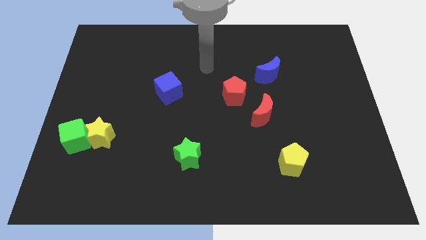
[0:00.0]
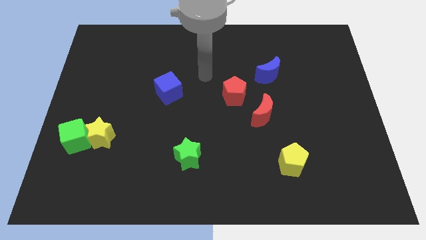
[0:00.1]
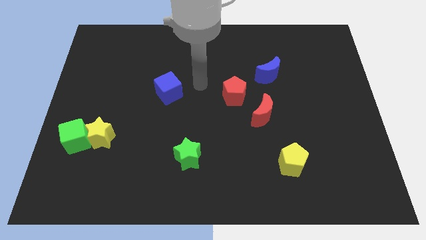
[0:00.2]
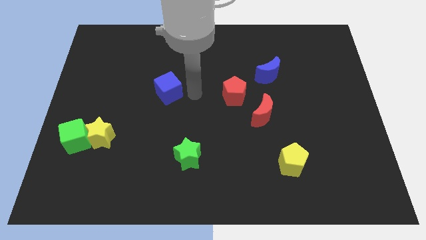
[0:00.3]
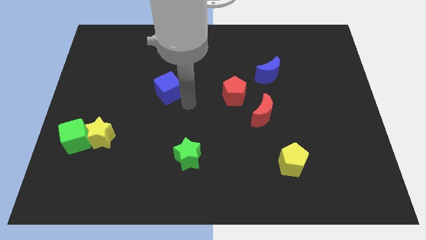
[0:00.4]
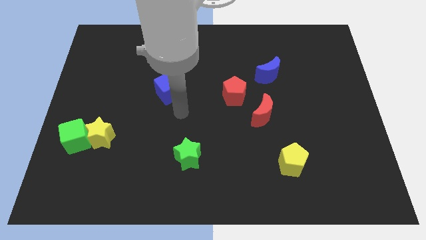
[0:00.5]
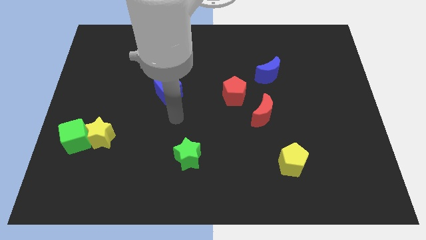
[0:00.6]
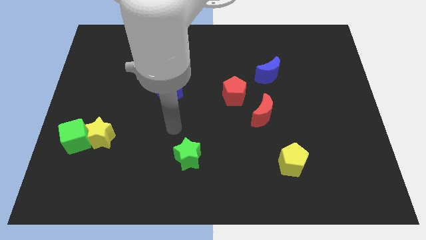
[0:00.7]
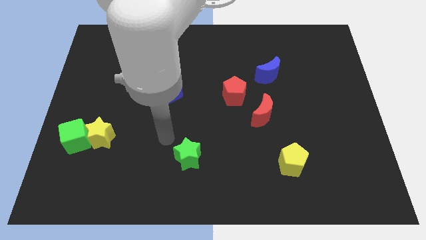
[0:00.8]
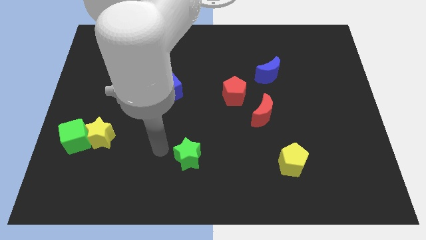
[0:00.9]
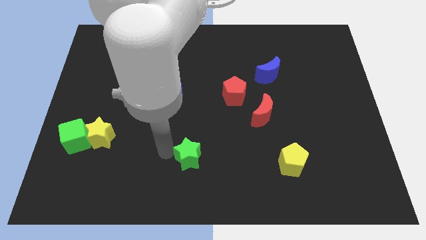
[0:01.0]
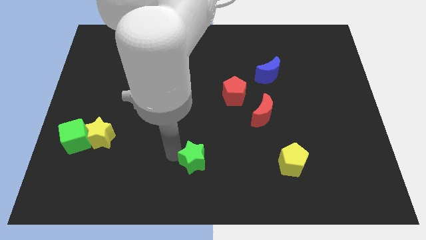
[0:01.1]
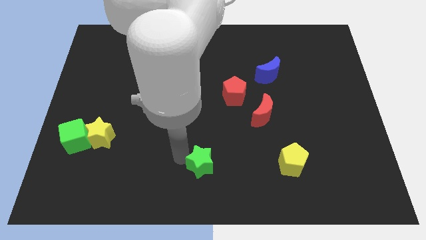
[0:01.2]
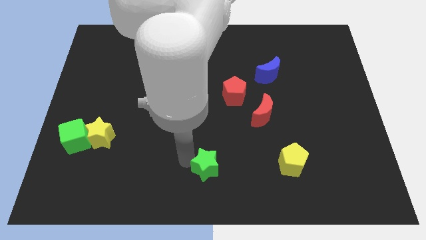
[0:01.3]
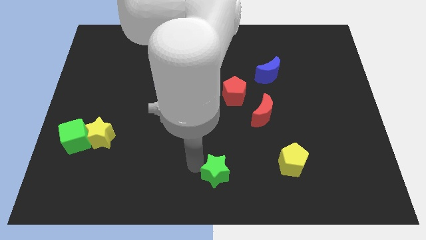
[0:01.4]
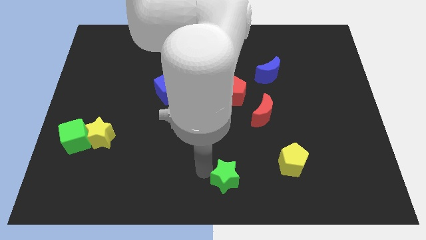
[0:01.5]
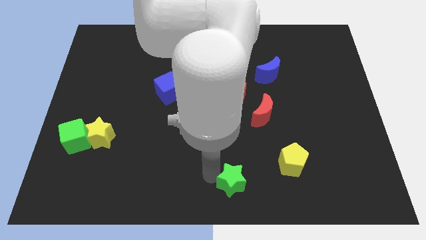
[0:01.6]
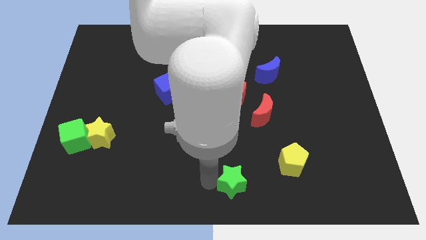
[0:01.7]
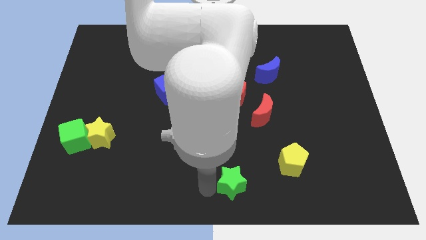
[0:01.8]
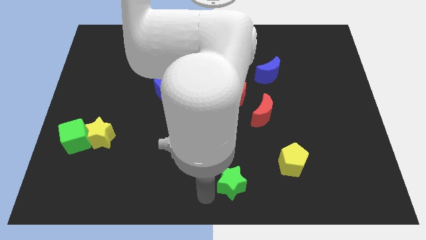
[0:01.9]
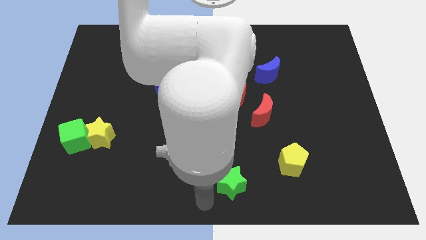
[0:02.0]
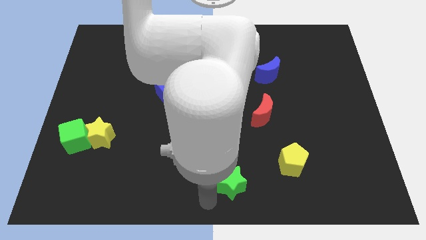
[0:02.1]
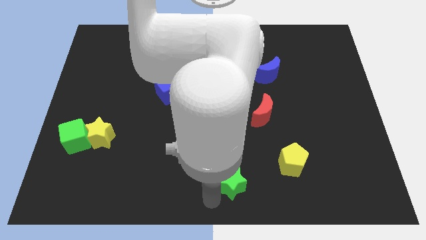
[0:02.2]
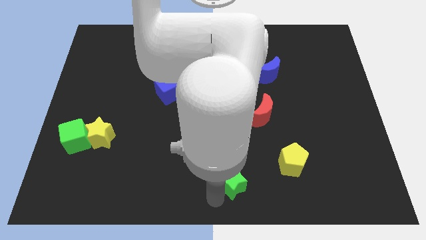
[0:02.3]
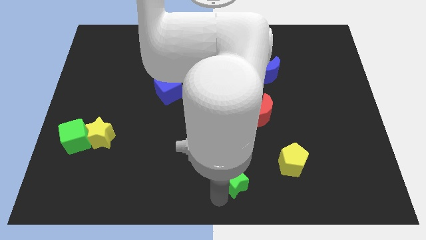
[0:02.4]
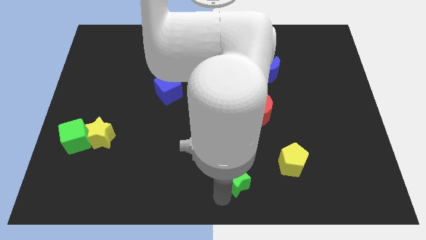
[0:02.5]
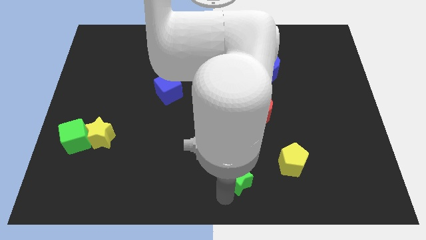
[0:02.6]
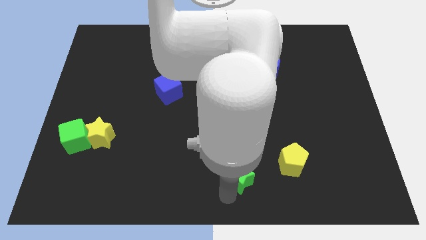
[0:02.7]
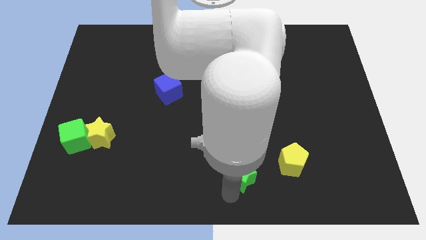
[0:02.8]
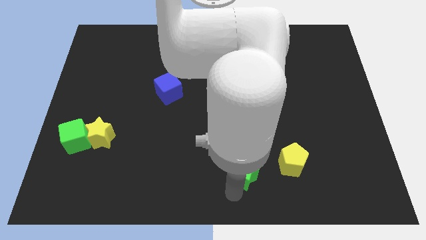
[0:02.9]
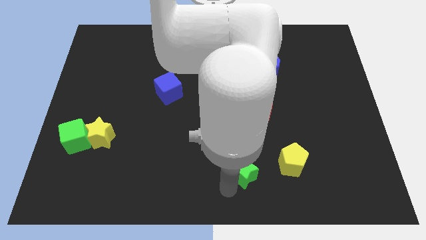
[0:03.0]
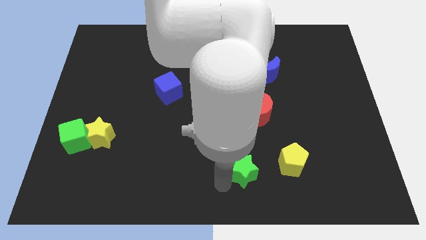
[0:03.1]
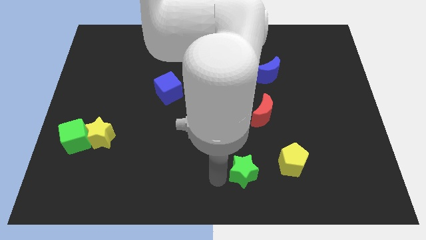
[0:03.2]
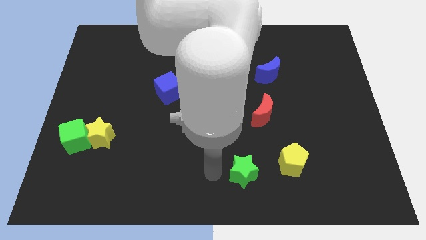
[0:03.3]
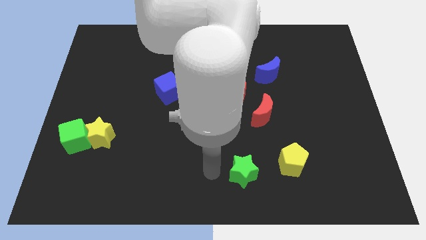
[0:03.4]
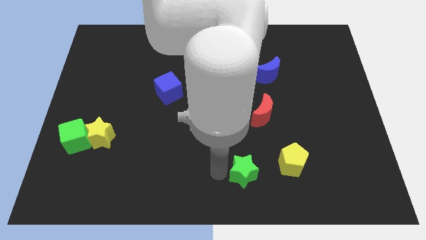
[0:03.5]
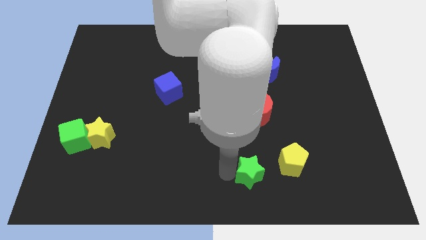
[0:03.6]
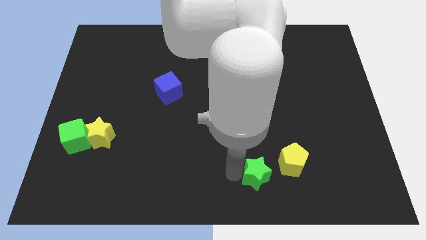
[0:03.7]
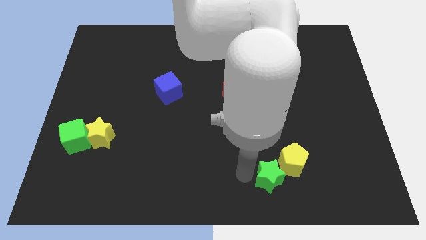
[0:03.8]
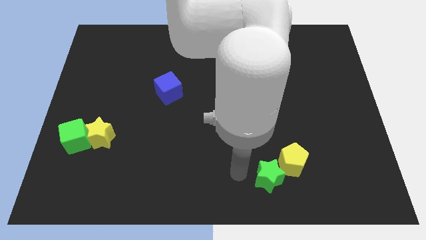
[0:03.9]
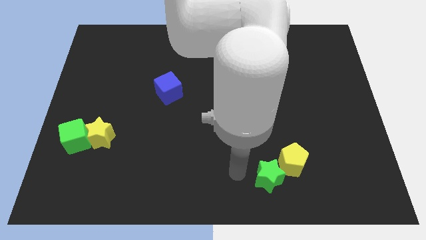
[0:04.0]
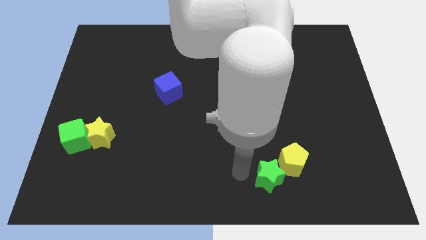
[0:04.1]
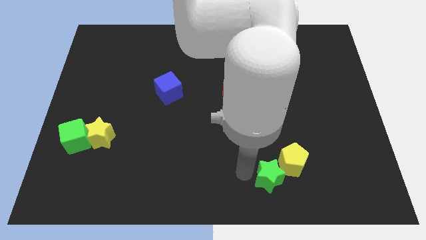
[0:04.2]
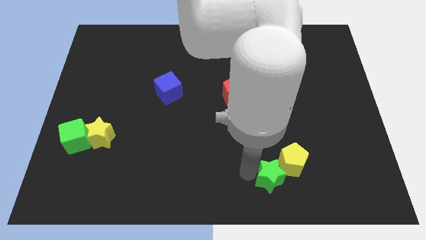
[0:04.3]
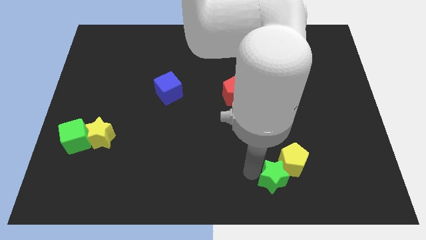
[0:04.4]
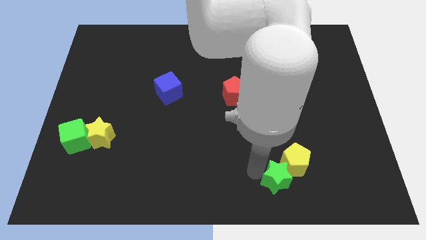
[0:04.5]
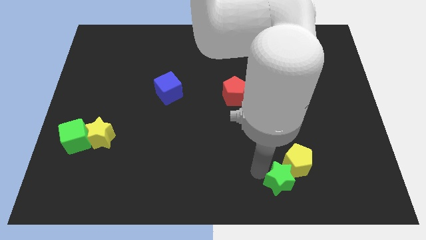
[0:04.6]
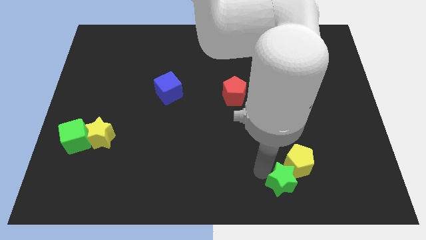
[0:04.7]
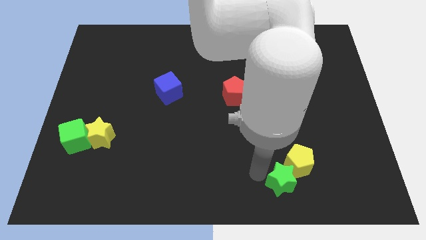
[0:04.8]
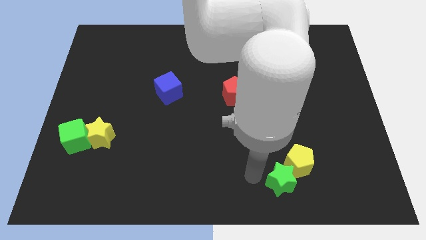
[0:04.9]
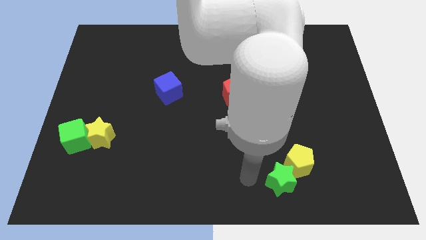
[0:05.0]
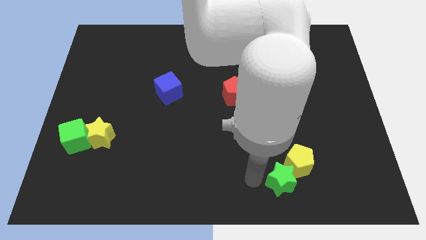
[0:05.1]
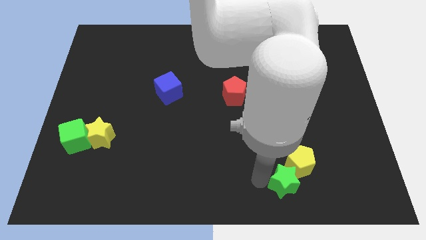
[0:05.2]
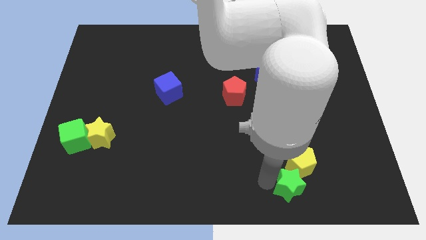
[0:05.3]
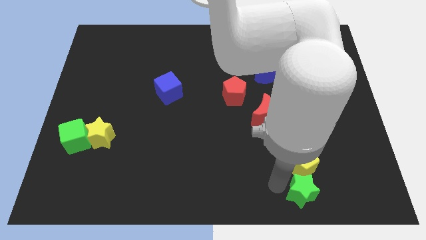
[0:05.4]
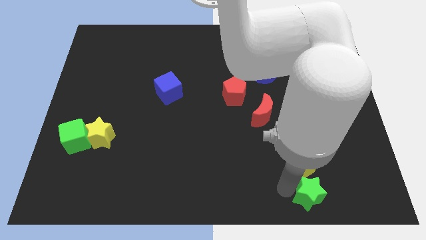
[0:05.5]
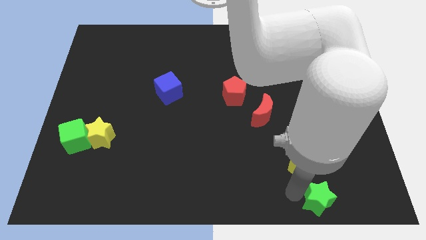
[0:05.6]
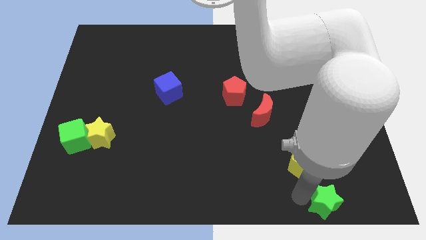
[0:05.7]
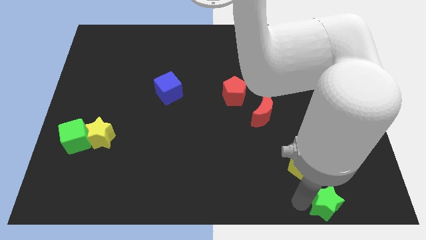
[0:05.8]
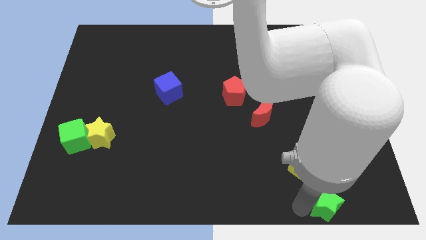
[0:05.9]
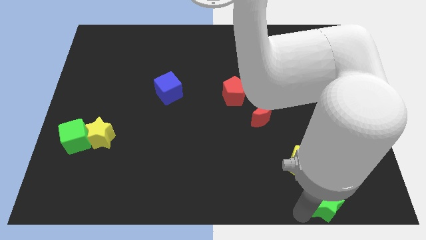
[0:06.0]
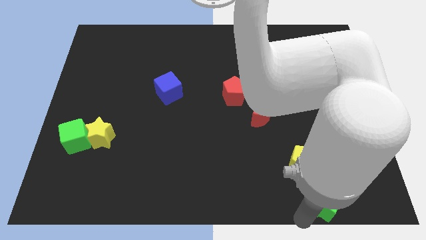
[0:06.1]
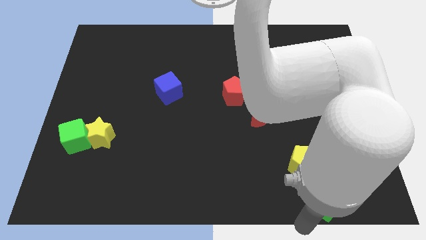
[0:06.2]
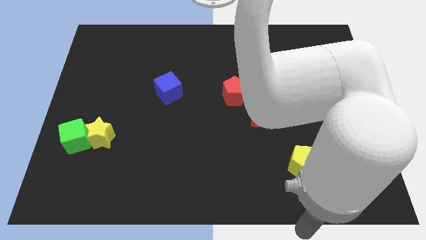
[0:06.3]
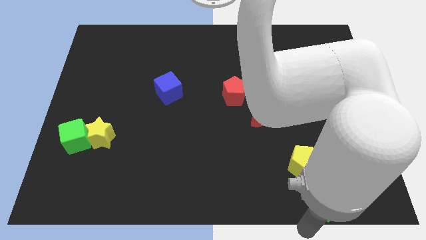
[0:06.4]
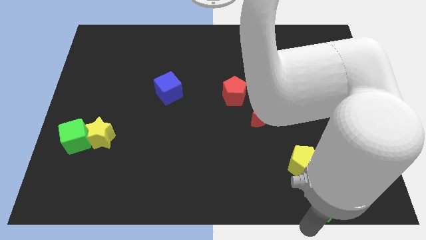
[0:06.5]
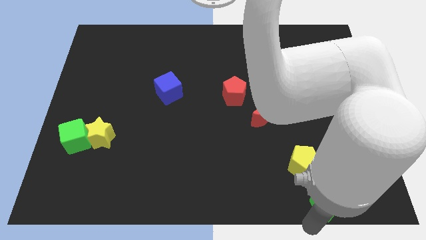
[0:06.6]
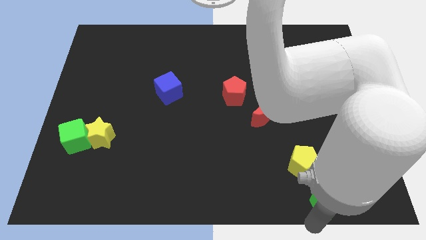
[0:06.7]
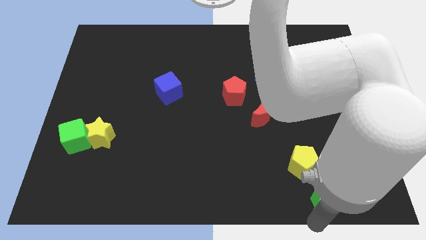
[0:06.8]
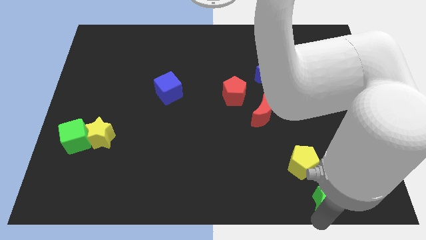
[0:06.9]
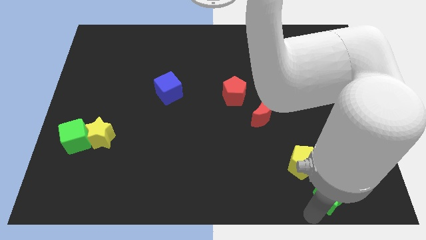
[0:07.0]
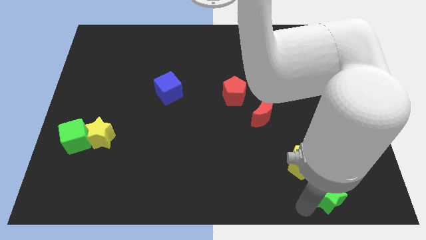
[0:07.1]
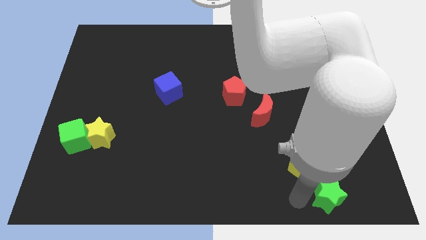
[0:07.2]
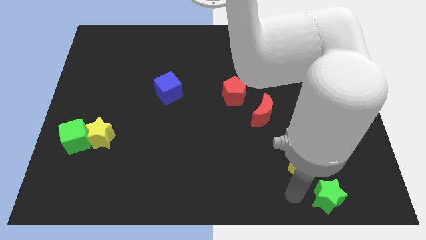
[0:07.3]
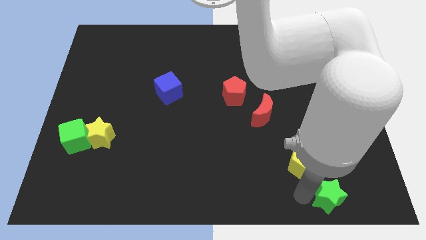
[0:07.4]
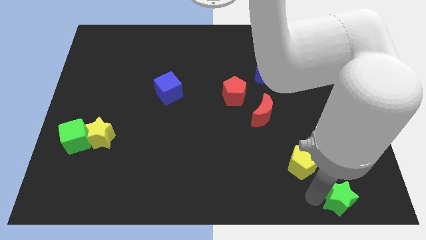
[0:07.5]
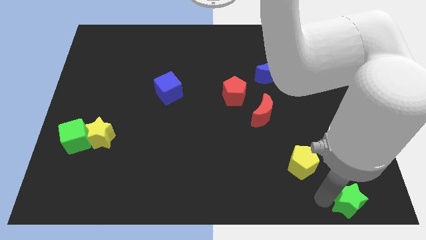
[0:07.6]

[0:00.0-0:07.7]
push the green star to the bottom right
